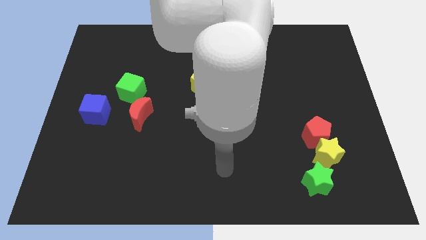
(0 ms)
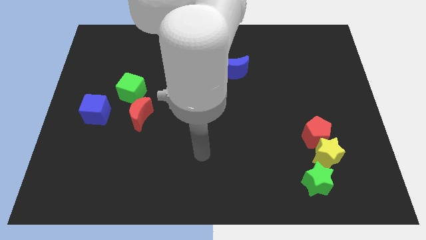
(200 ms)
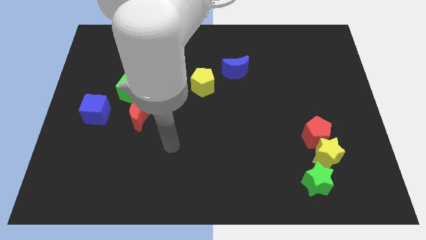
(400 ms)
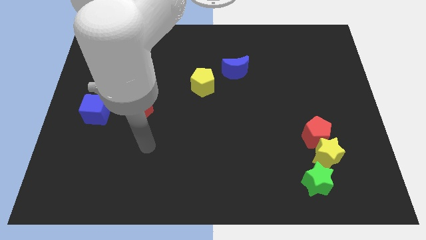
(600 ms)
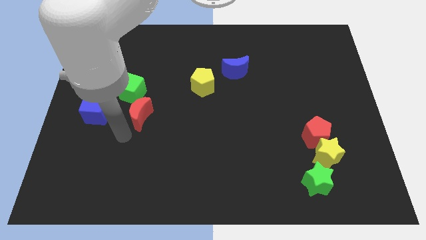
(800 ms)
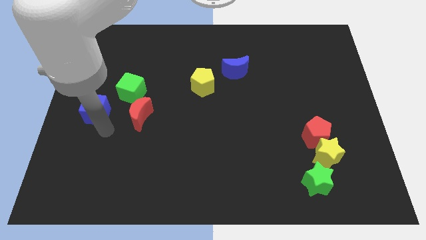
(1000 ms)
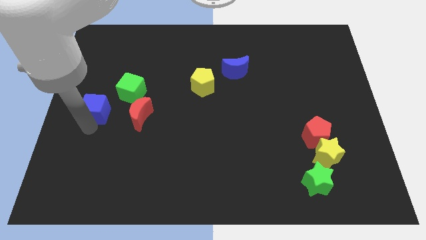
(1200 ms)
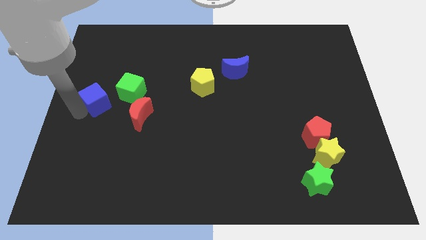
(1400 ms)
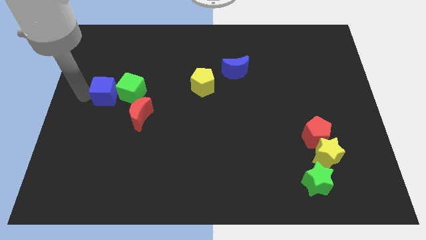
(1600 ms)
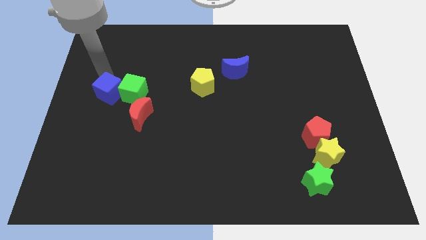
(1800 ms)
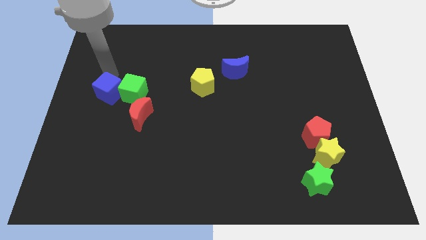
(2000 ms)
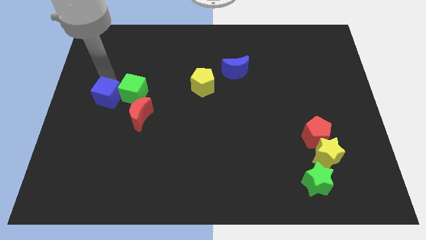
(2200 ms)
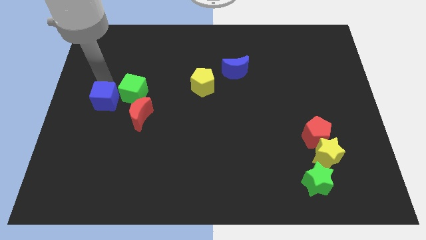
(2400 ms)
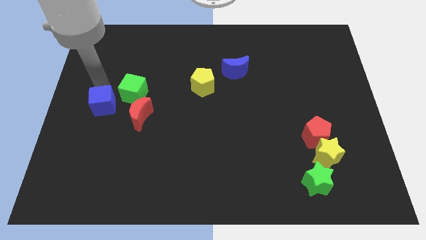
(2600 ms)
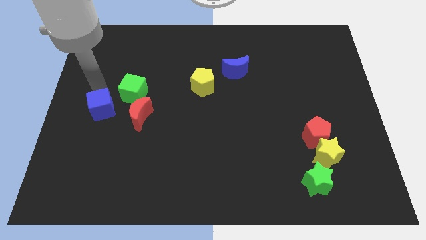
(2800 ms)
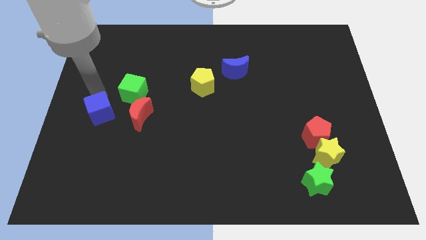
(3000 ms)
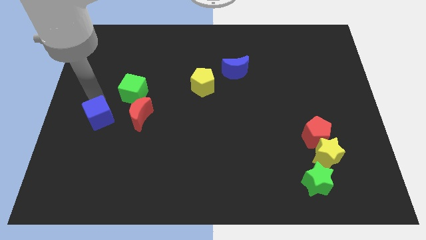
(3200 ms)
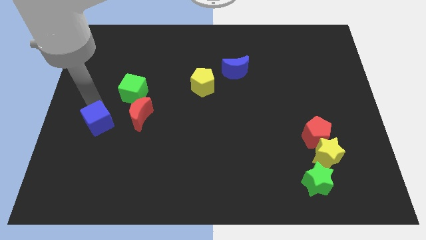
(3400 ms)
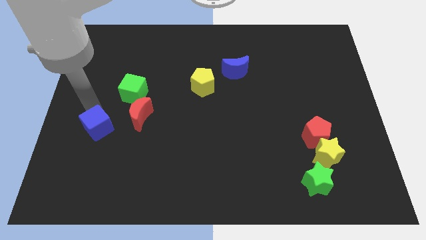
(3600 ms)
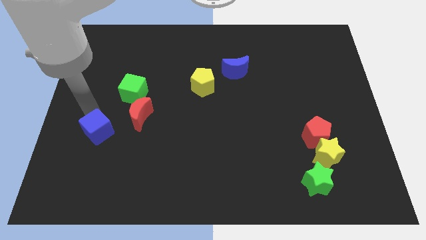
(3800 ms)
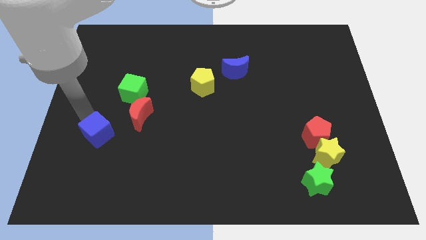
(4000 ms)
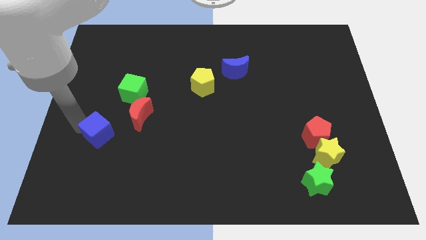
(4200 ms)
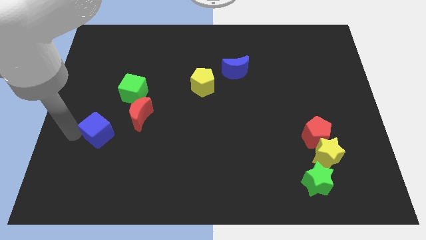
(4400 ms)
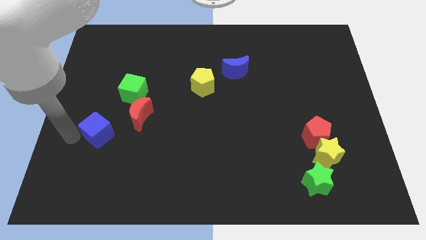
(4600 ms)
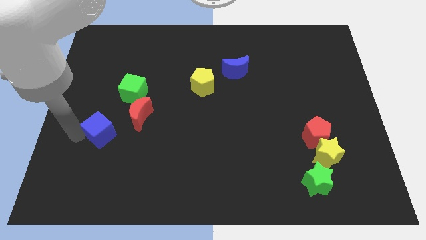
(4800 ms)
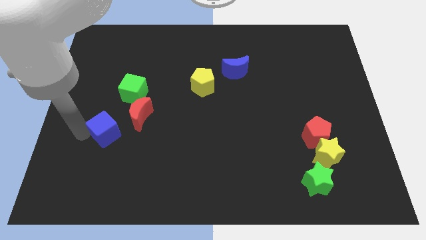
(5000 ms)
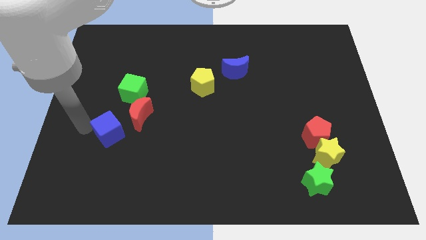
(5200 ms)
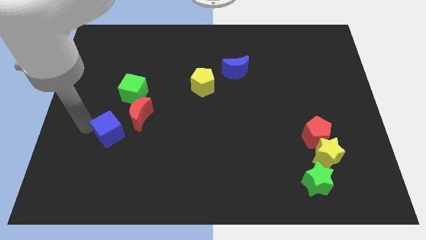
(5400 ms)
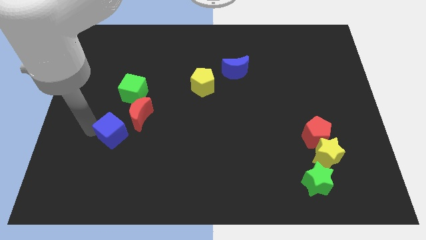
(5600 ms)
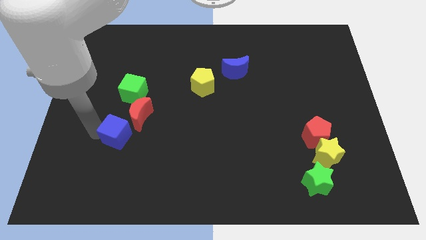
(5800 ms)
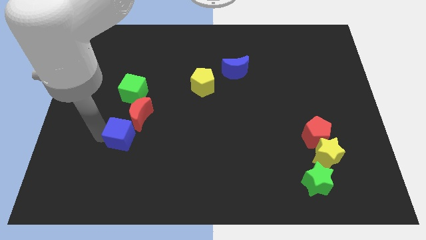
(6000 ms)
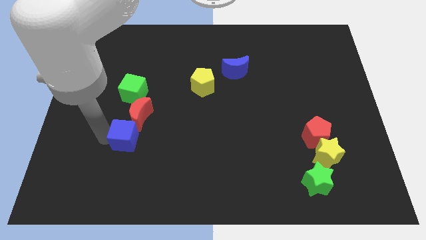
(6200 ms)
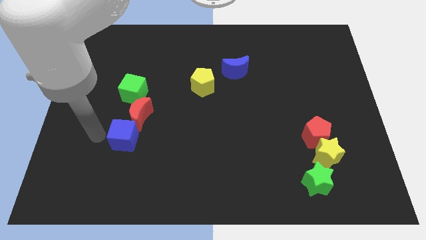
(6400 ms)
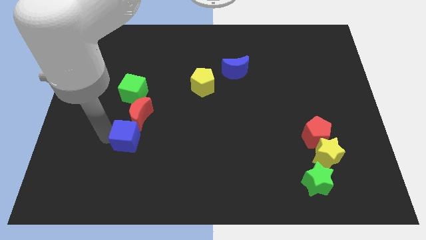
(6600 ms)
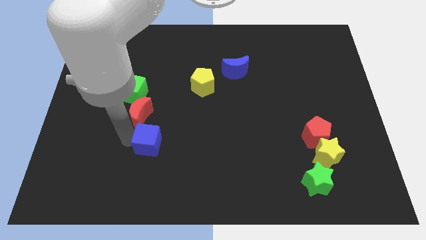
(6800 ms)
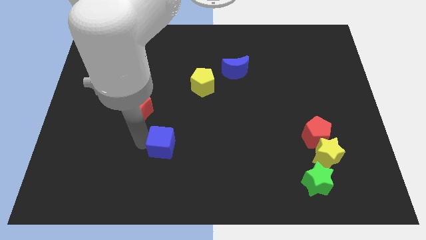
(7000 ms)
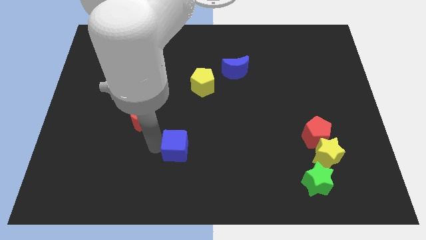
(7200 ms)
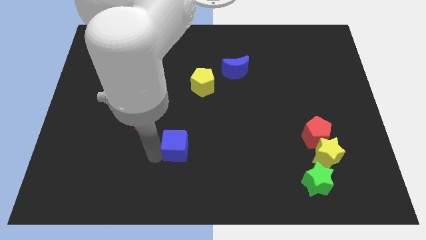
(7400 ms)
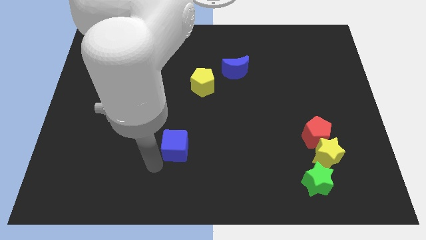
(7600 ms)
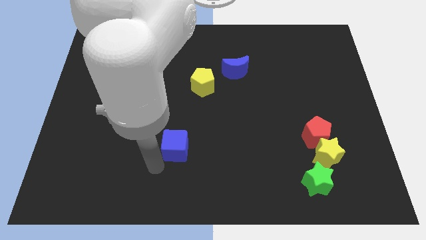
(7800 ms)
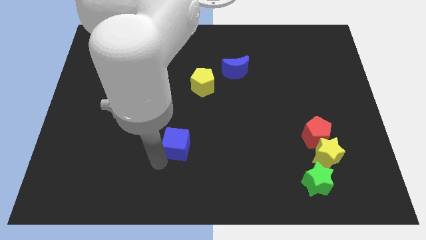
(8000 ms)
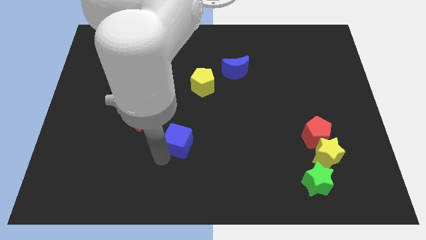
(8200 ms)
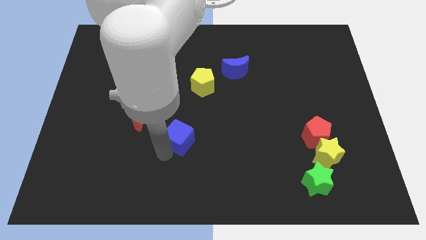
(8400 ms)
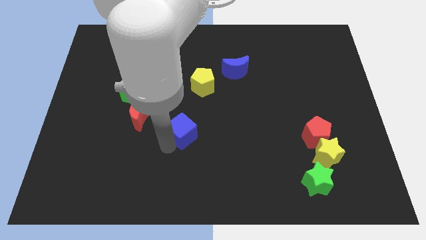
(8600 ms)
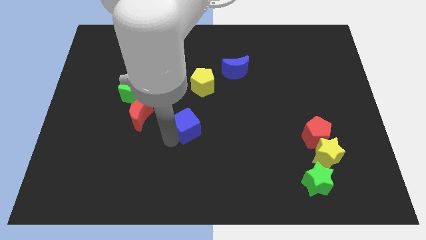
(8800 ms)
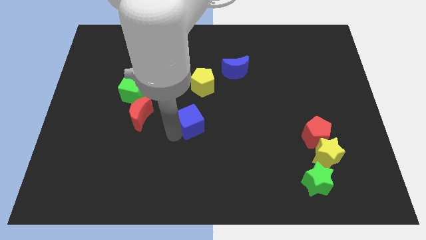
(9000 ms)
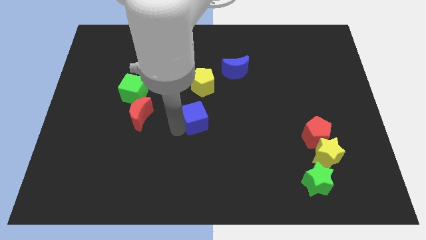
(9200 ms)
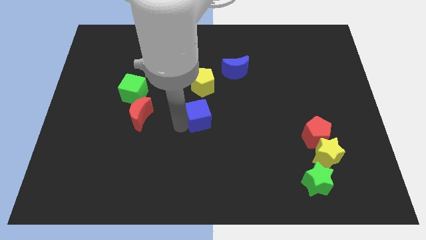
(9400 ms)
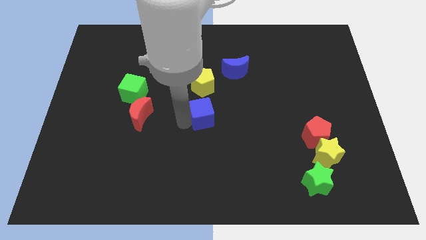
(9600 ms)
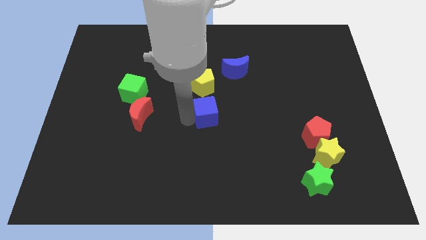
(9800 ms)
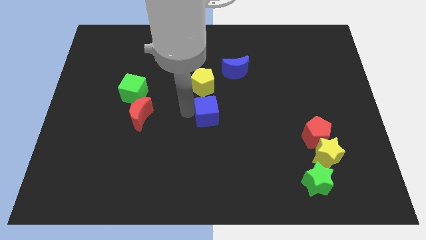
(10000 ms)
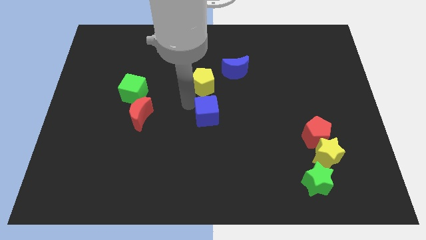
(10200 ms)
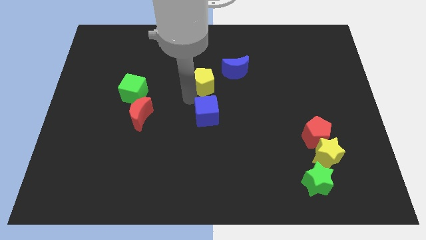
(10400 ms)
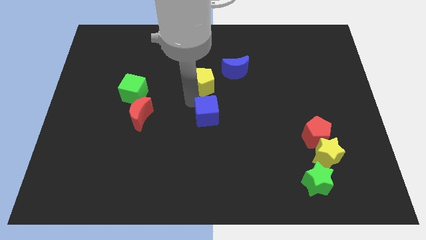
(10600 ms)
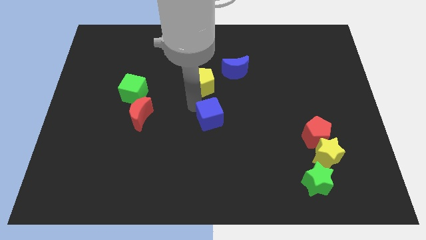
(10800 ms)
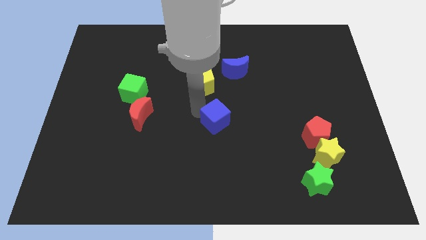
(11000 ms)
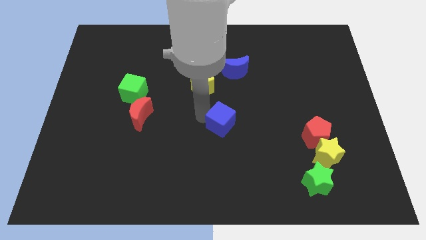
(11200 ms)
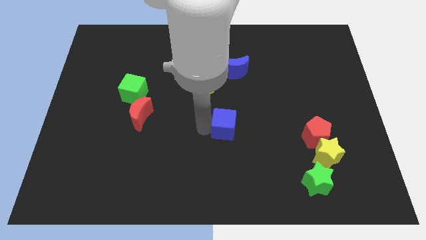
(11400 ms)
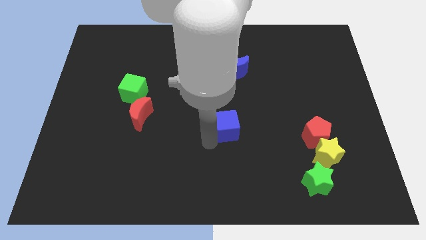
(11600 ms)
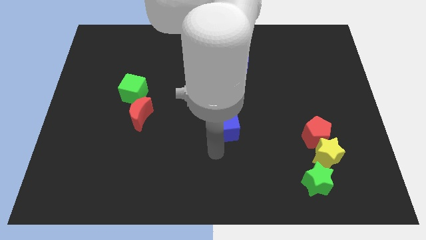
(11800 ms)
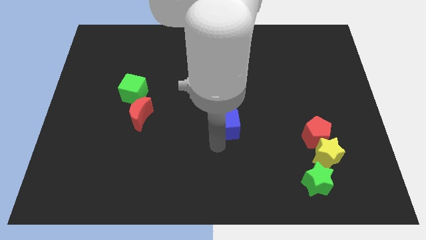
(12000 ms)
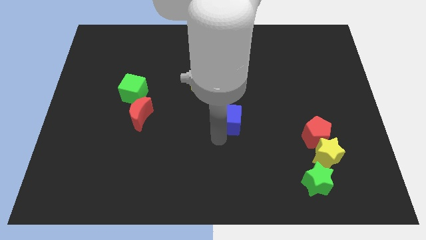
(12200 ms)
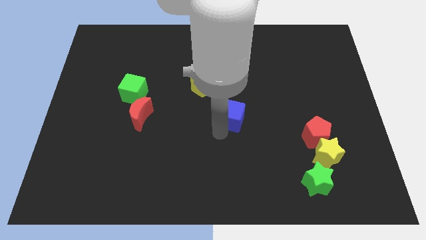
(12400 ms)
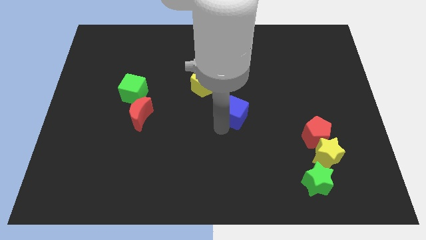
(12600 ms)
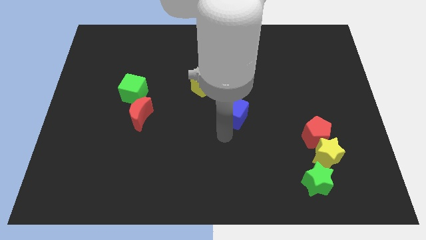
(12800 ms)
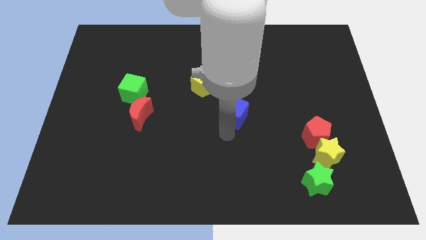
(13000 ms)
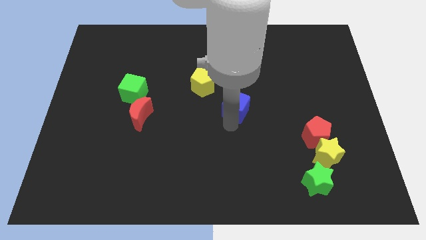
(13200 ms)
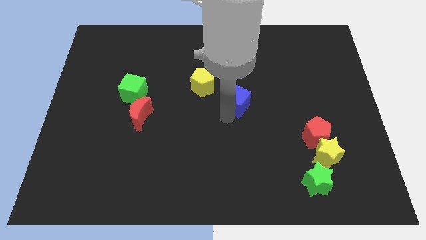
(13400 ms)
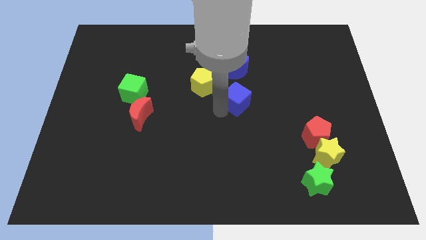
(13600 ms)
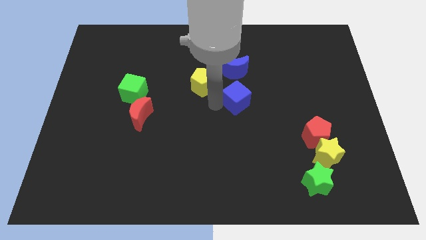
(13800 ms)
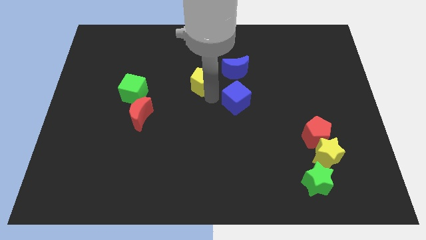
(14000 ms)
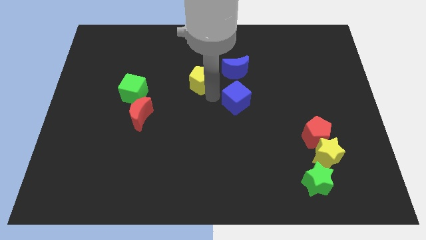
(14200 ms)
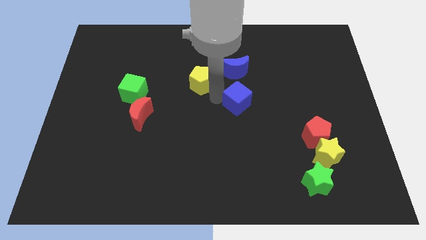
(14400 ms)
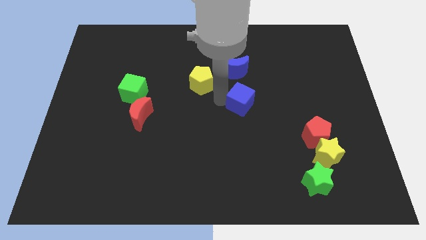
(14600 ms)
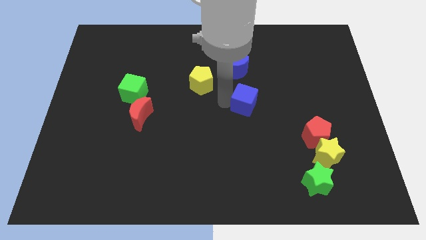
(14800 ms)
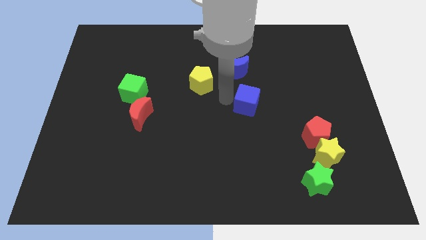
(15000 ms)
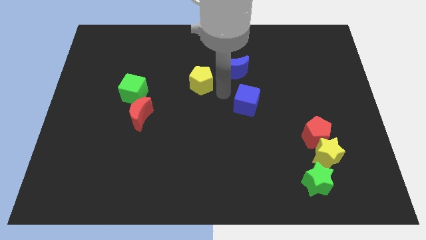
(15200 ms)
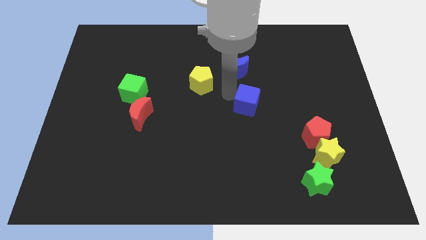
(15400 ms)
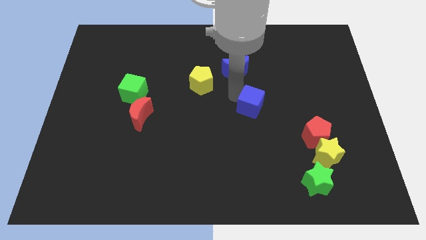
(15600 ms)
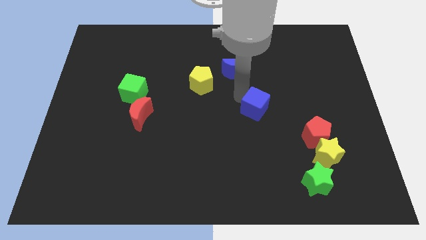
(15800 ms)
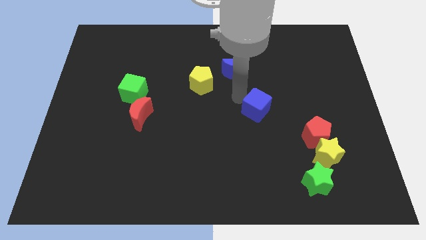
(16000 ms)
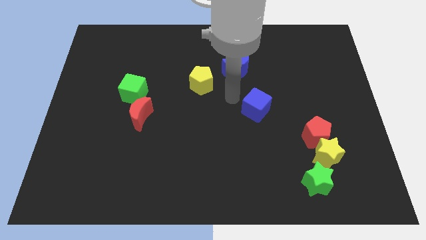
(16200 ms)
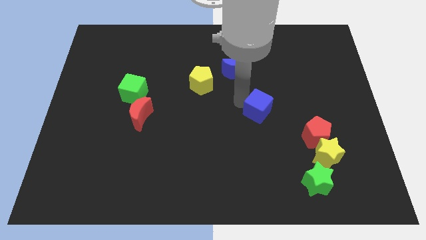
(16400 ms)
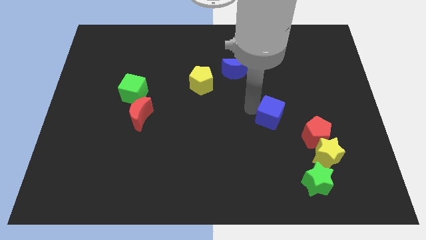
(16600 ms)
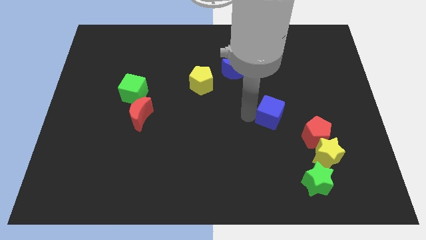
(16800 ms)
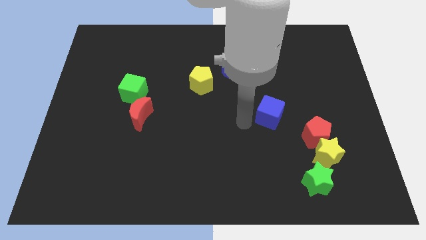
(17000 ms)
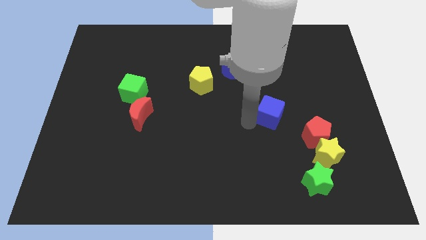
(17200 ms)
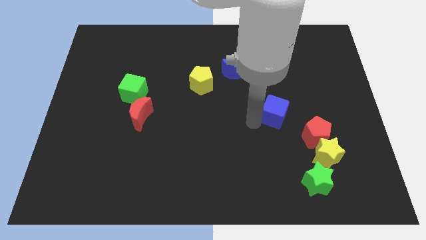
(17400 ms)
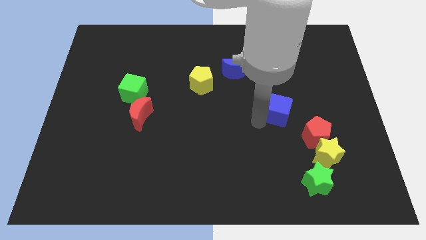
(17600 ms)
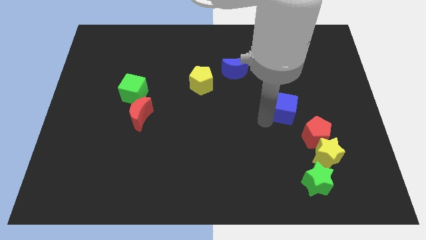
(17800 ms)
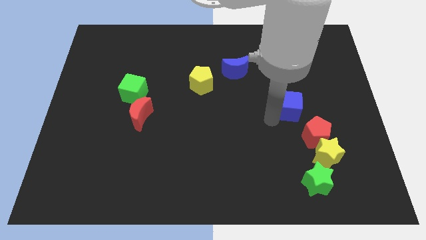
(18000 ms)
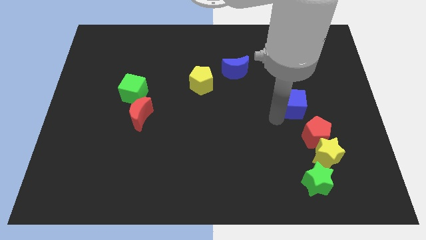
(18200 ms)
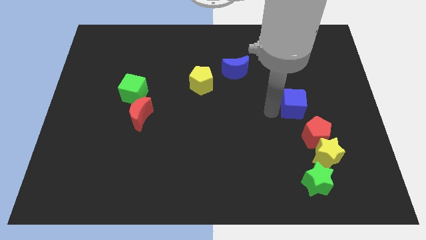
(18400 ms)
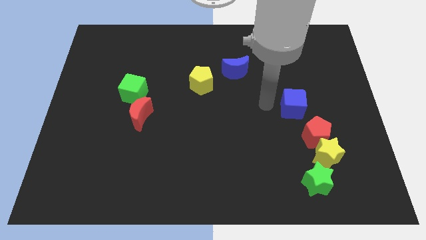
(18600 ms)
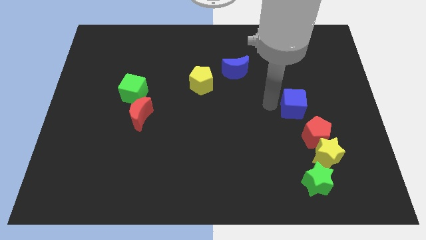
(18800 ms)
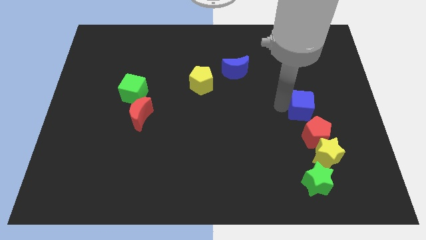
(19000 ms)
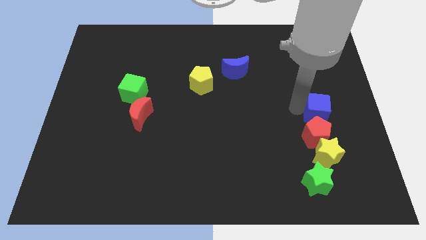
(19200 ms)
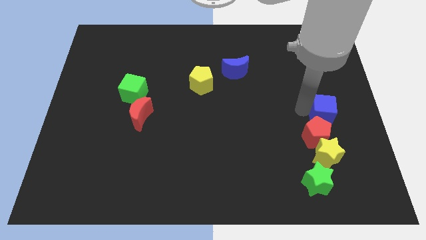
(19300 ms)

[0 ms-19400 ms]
slide the blue cube to the center right
